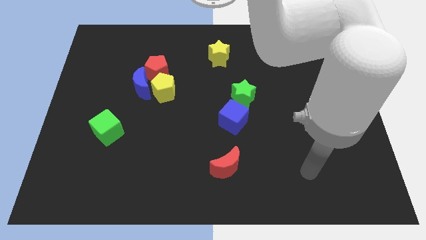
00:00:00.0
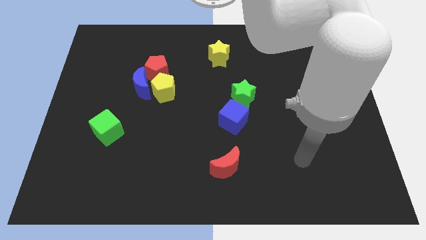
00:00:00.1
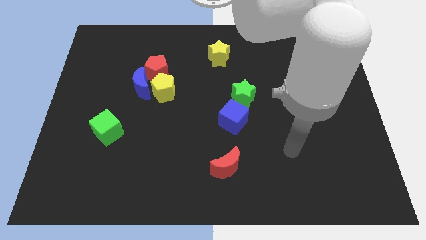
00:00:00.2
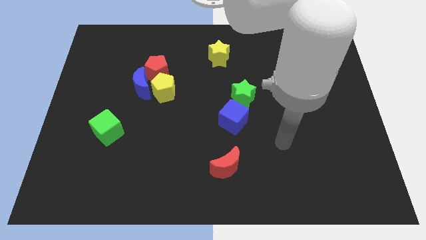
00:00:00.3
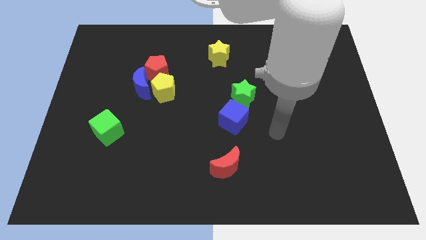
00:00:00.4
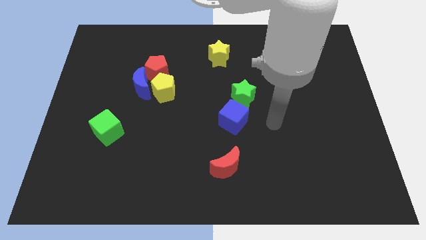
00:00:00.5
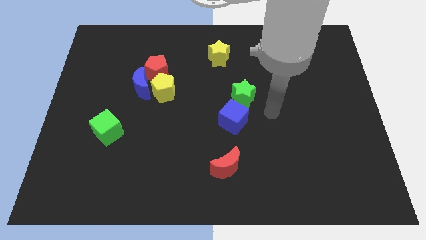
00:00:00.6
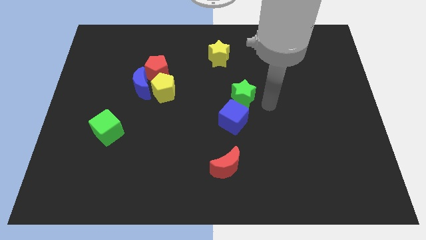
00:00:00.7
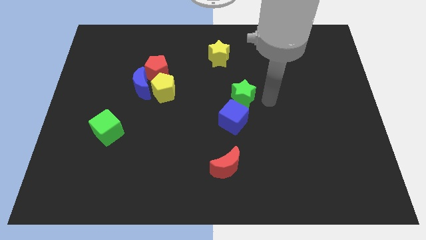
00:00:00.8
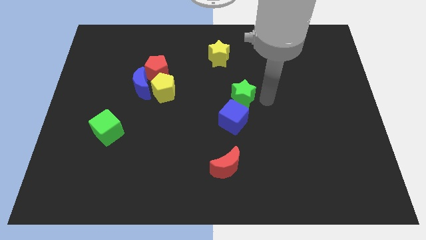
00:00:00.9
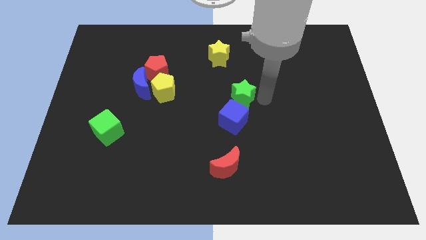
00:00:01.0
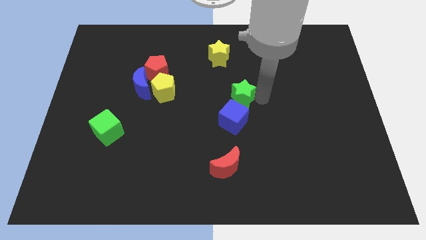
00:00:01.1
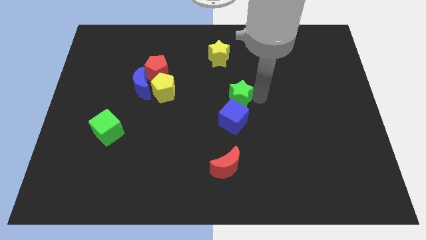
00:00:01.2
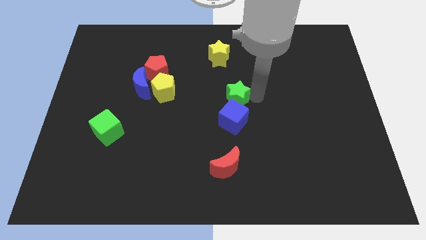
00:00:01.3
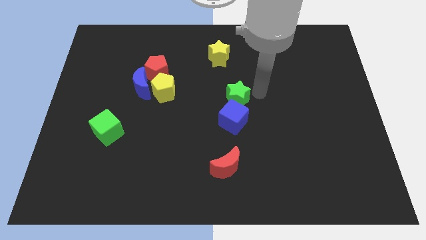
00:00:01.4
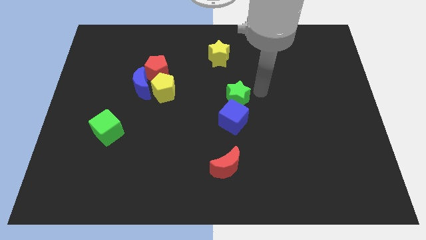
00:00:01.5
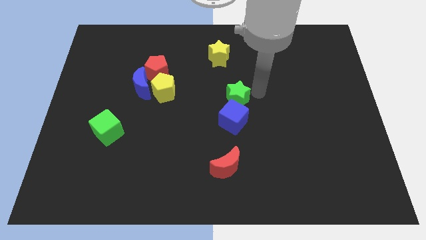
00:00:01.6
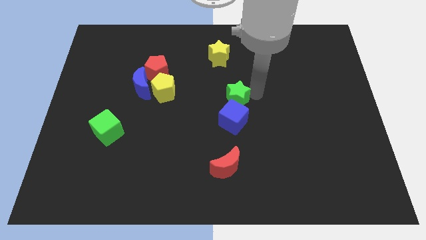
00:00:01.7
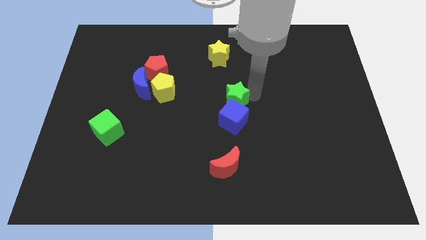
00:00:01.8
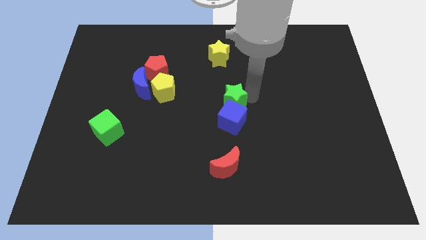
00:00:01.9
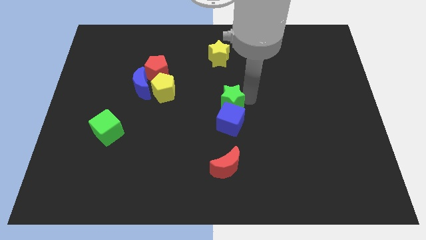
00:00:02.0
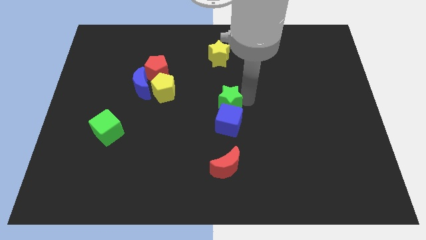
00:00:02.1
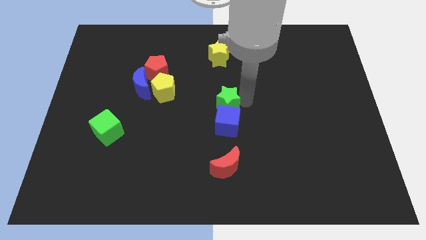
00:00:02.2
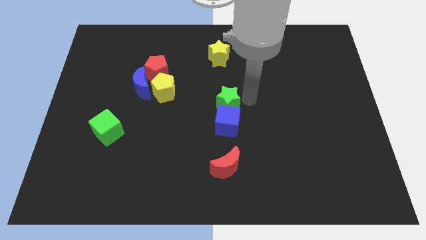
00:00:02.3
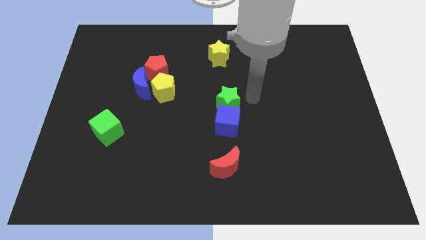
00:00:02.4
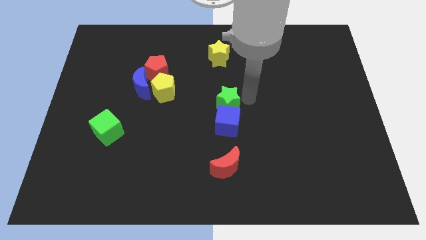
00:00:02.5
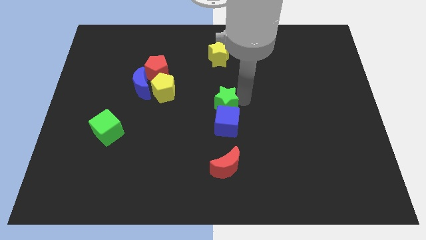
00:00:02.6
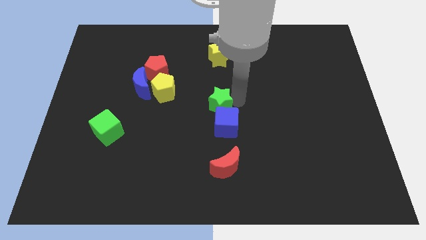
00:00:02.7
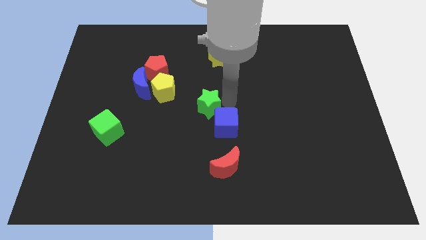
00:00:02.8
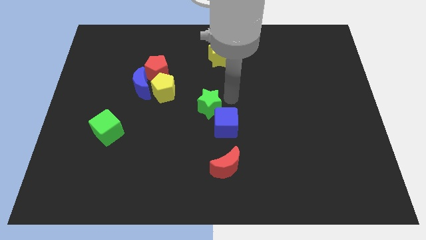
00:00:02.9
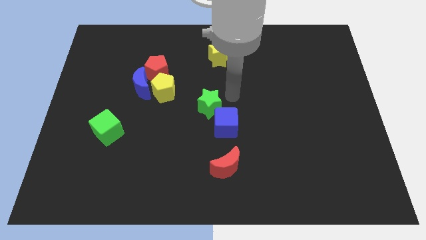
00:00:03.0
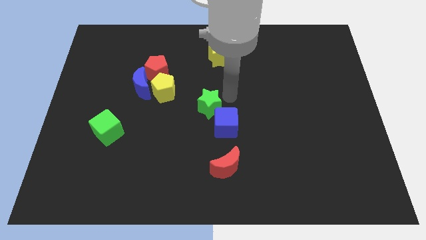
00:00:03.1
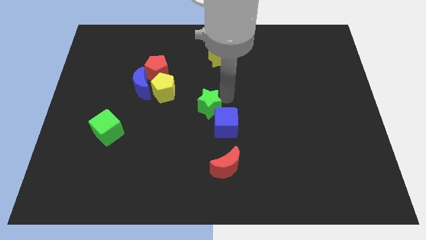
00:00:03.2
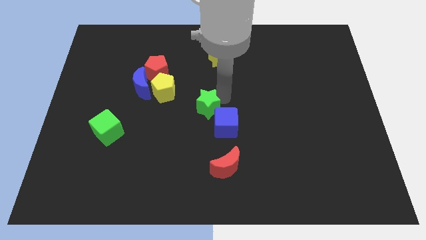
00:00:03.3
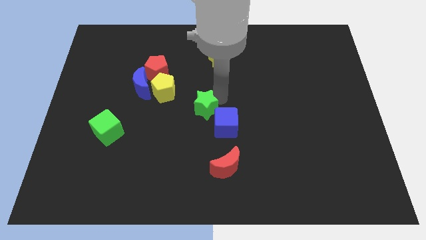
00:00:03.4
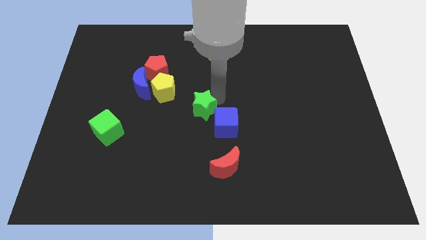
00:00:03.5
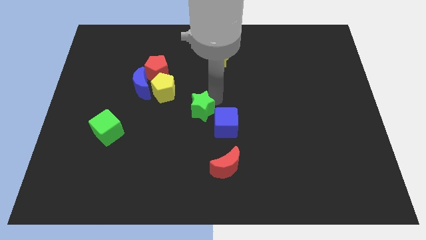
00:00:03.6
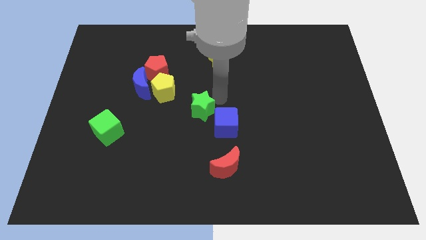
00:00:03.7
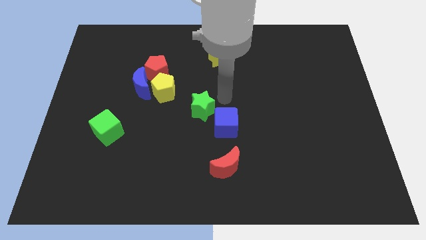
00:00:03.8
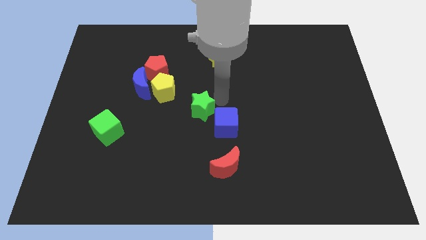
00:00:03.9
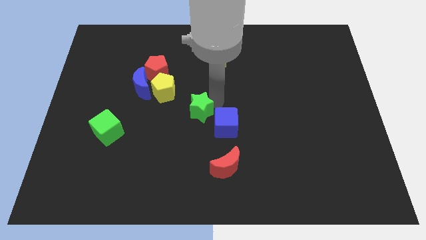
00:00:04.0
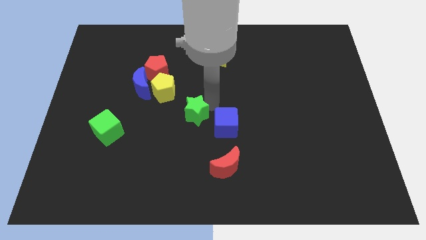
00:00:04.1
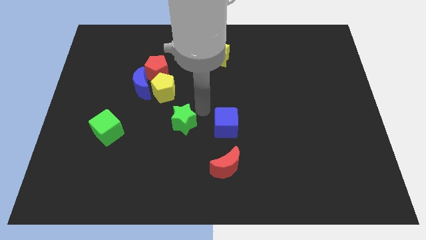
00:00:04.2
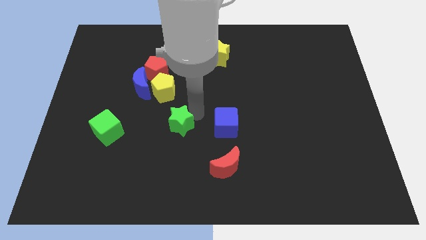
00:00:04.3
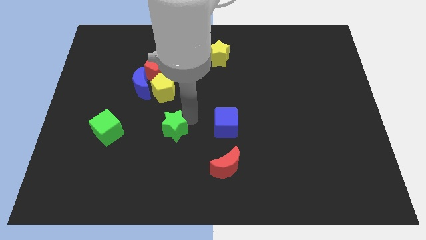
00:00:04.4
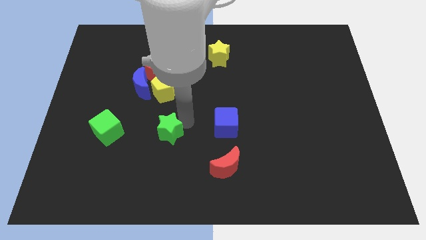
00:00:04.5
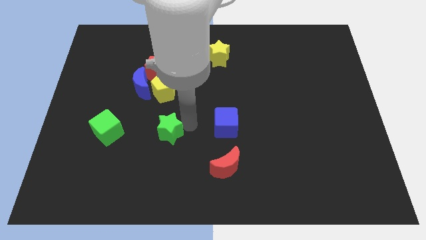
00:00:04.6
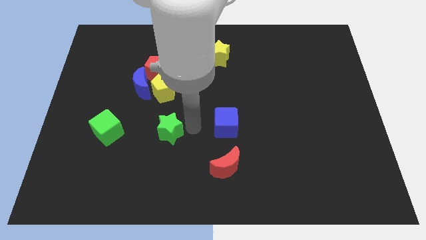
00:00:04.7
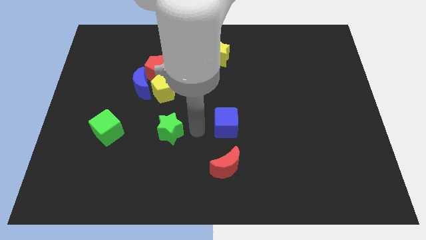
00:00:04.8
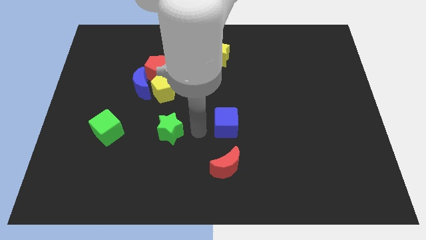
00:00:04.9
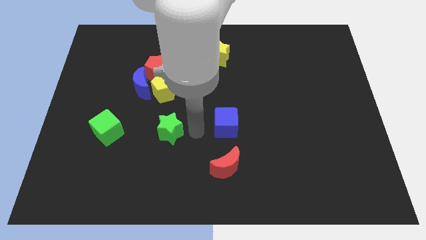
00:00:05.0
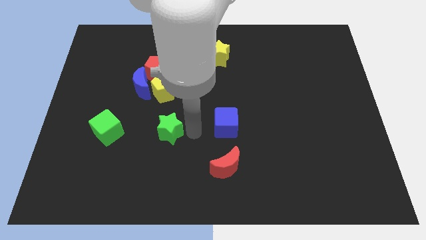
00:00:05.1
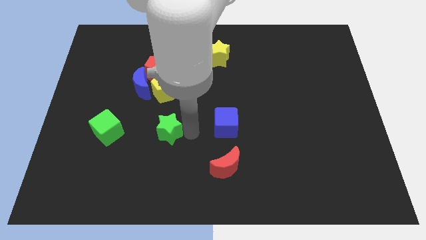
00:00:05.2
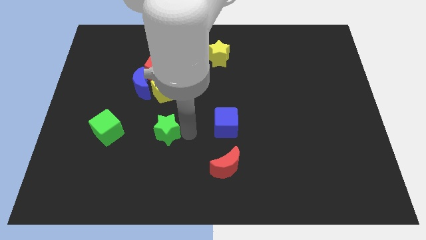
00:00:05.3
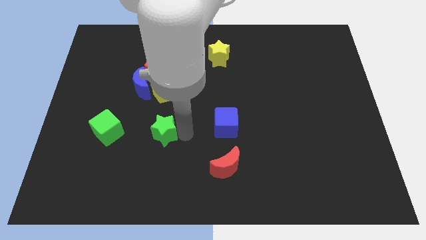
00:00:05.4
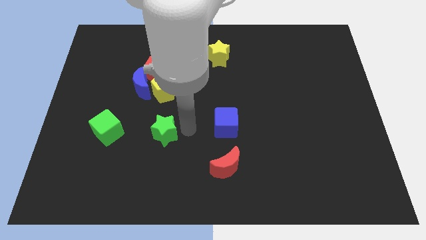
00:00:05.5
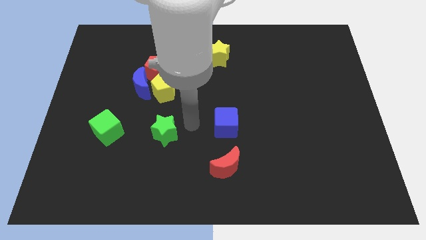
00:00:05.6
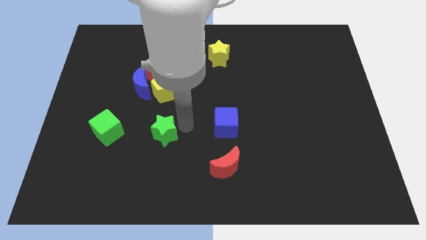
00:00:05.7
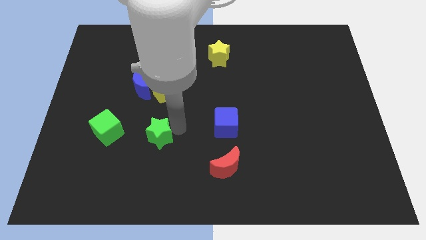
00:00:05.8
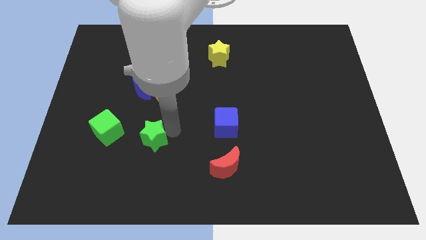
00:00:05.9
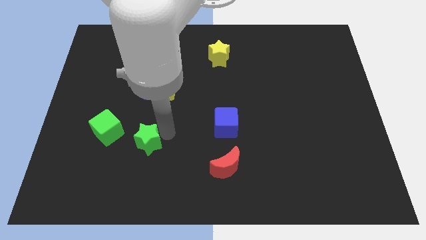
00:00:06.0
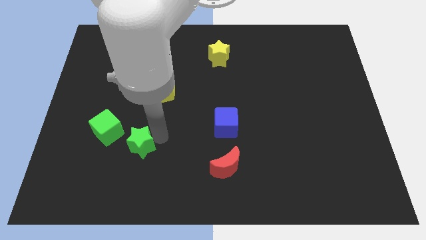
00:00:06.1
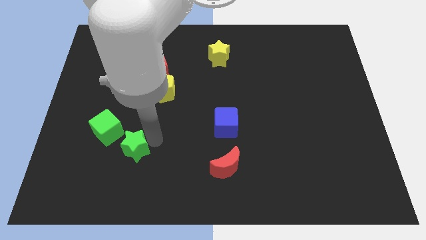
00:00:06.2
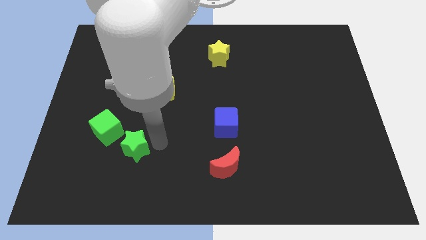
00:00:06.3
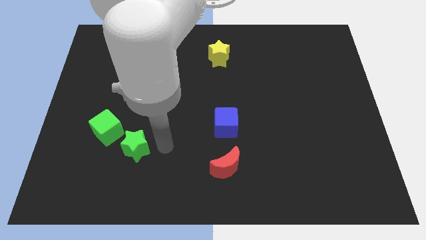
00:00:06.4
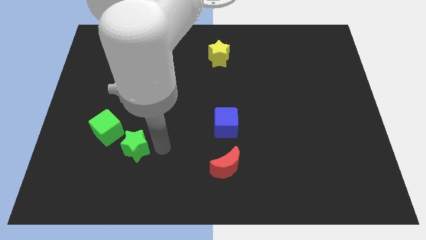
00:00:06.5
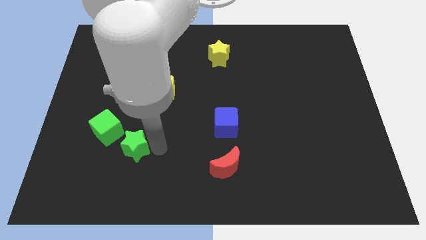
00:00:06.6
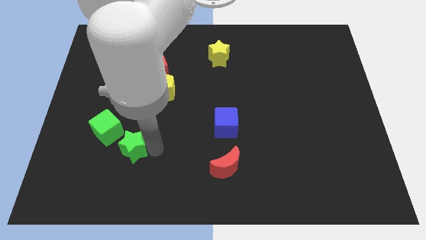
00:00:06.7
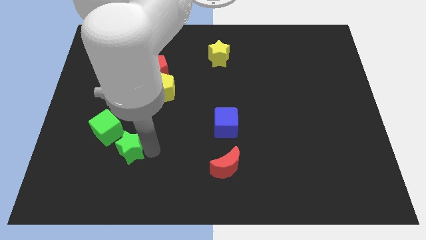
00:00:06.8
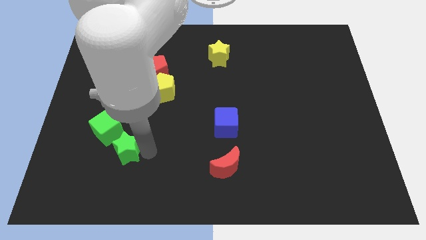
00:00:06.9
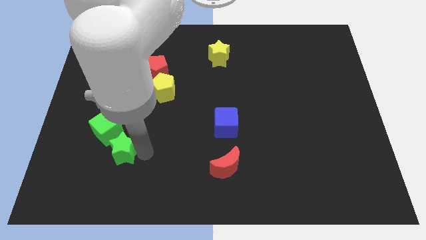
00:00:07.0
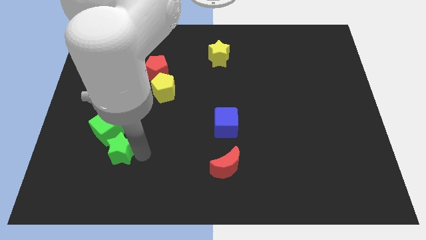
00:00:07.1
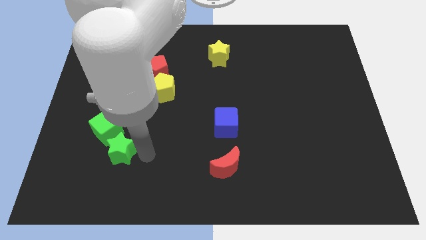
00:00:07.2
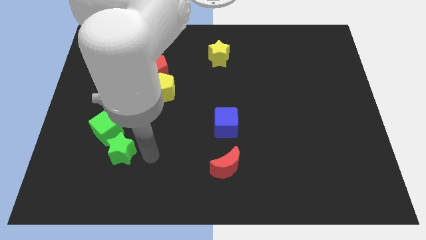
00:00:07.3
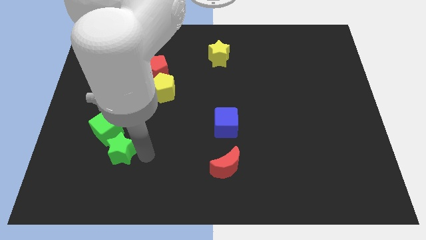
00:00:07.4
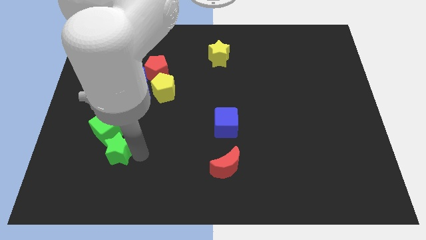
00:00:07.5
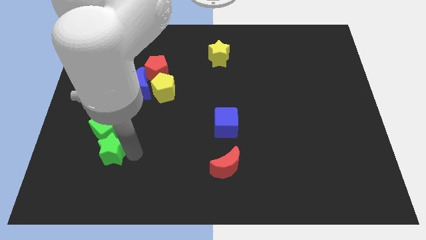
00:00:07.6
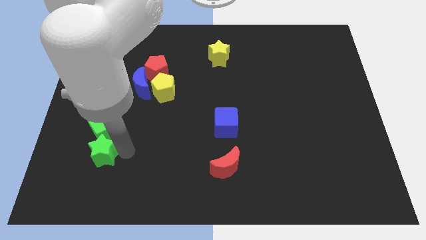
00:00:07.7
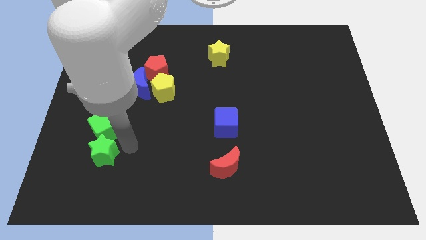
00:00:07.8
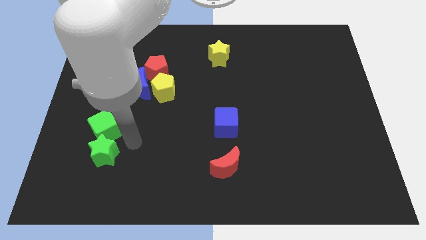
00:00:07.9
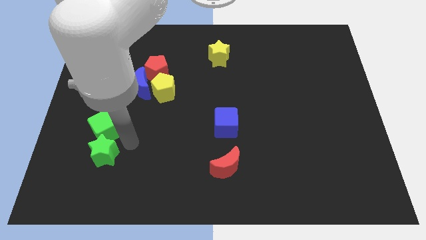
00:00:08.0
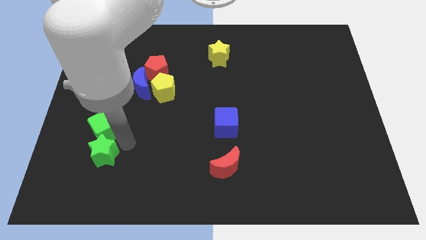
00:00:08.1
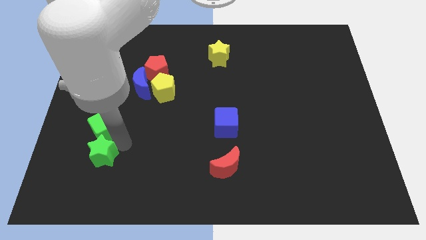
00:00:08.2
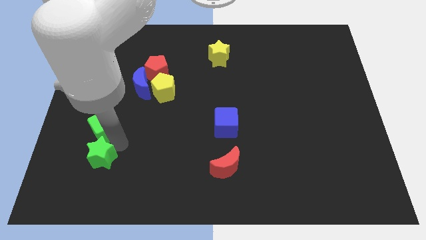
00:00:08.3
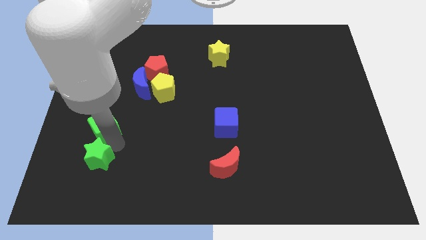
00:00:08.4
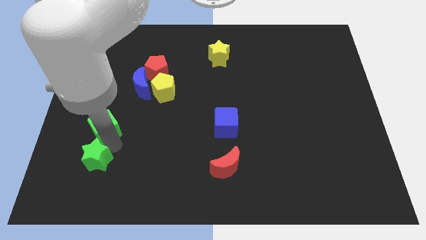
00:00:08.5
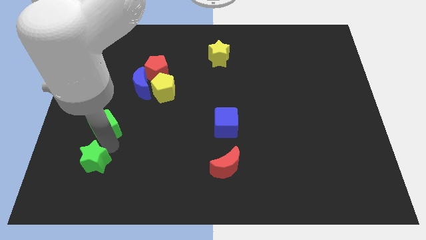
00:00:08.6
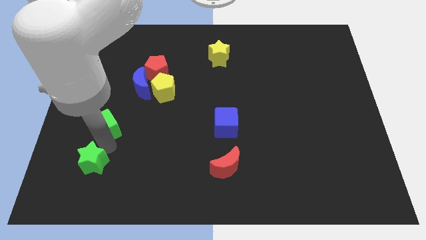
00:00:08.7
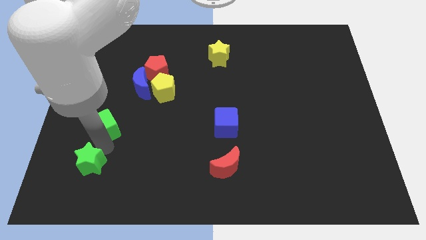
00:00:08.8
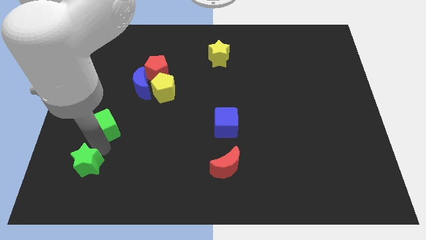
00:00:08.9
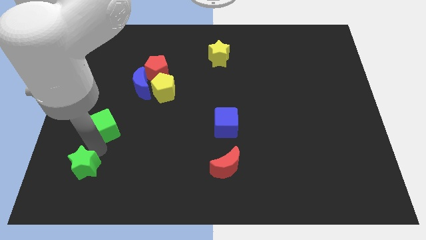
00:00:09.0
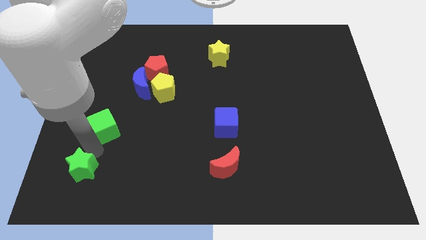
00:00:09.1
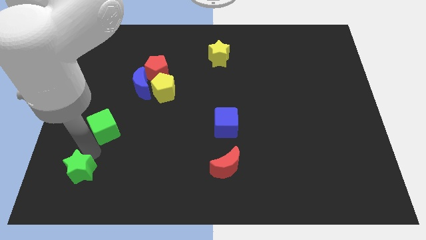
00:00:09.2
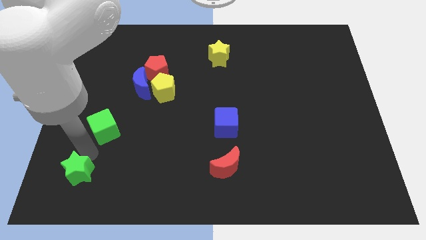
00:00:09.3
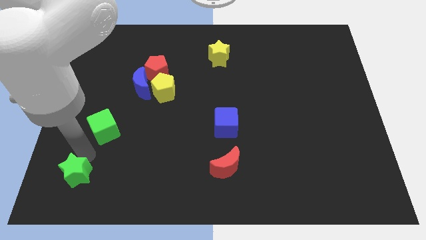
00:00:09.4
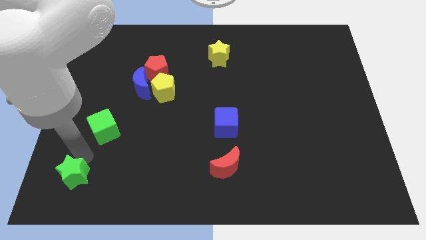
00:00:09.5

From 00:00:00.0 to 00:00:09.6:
put the green star to the bottom left corner
